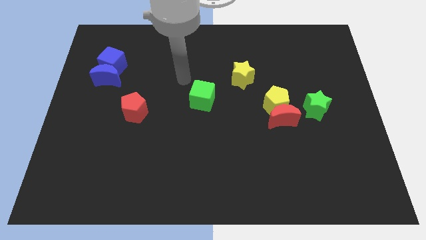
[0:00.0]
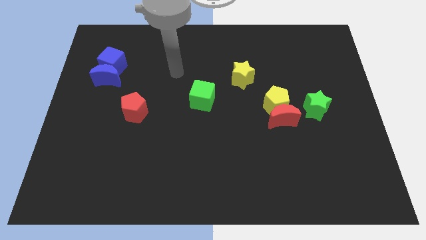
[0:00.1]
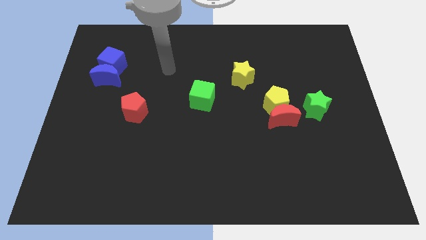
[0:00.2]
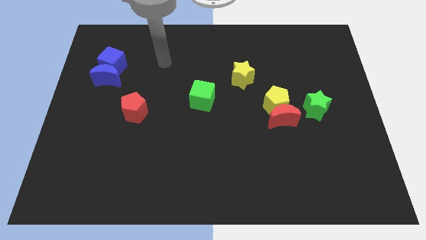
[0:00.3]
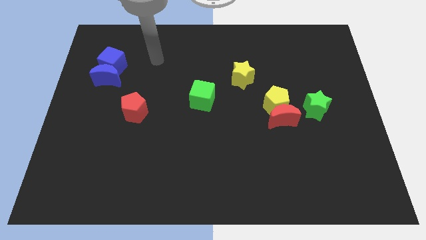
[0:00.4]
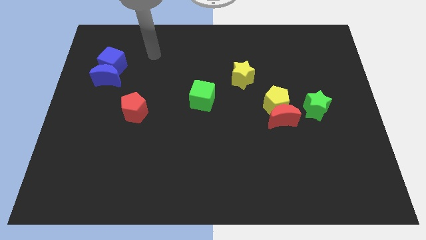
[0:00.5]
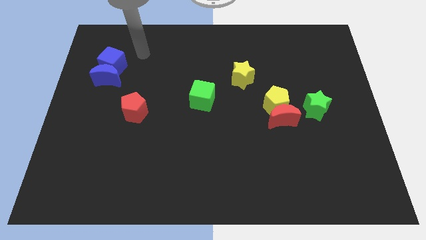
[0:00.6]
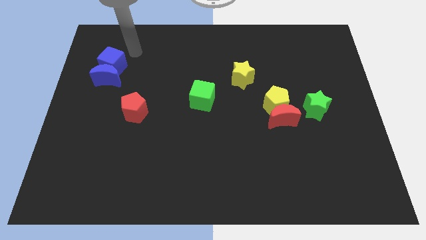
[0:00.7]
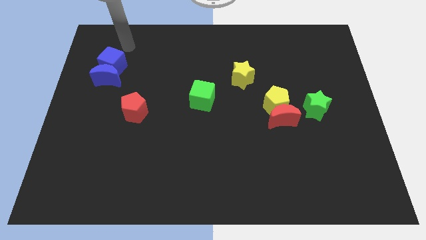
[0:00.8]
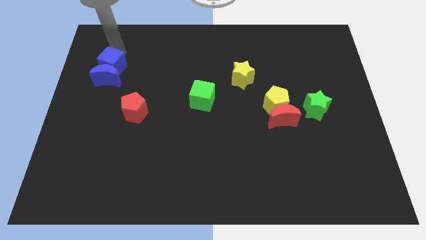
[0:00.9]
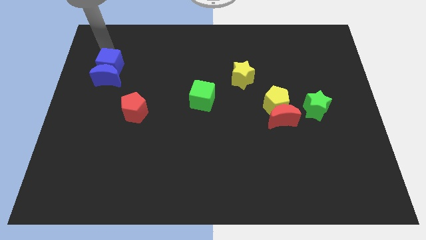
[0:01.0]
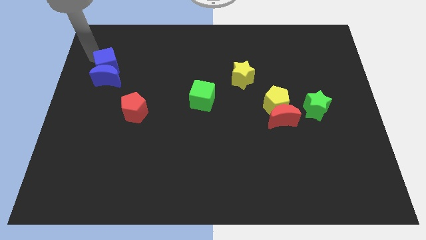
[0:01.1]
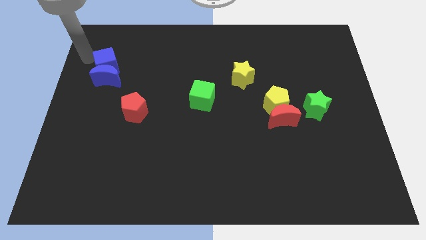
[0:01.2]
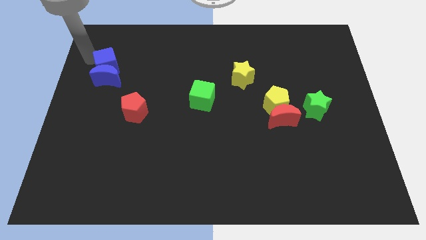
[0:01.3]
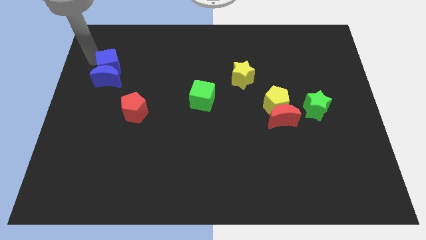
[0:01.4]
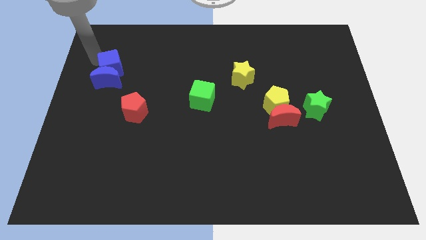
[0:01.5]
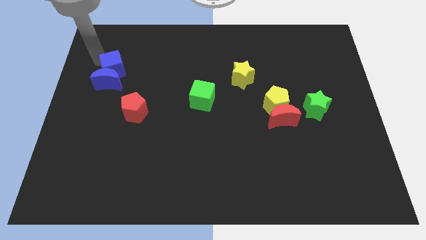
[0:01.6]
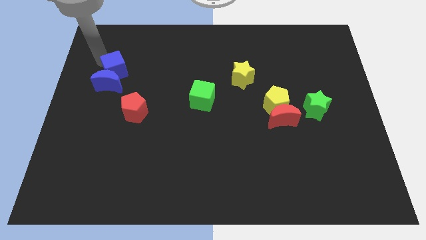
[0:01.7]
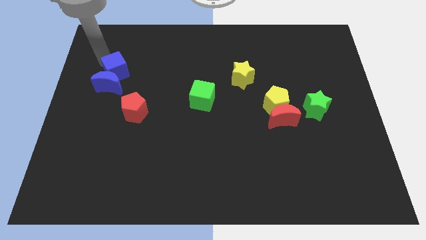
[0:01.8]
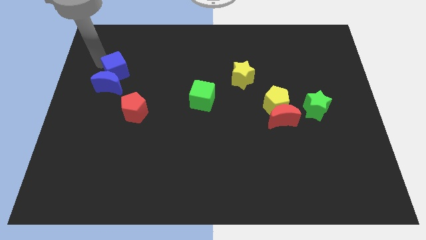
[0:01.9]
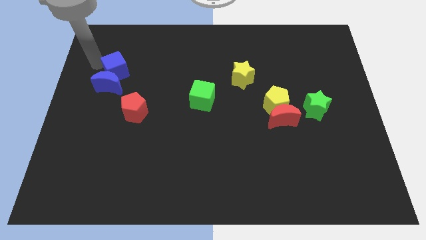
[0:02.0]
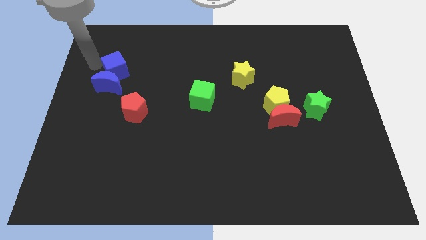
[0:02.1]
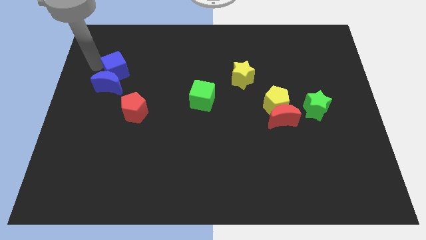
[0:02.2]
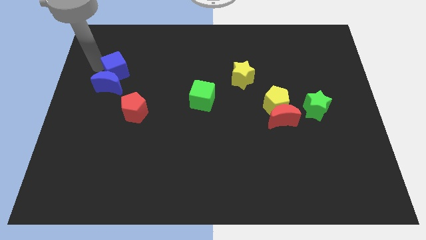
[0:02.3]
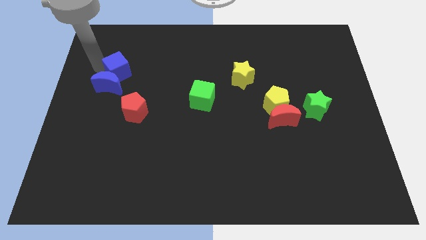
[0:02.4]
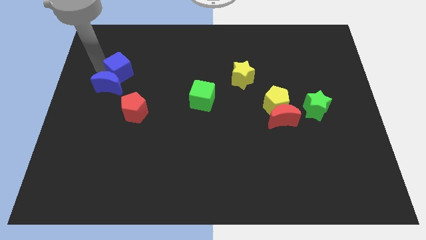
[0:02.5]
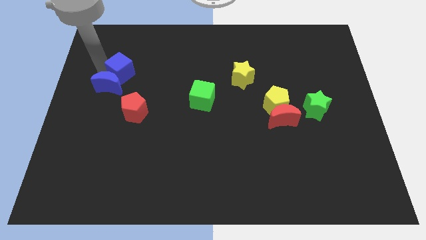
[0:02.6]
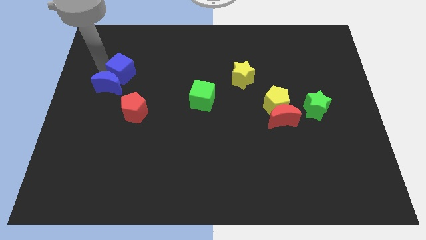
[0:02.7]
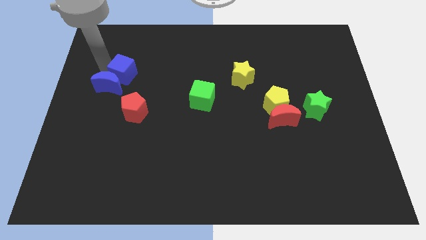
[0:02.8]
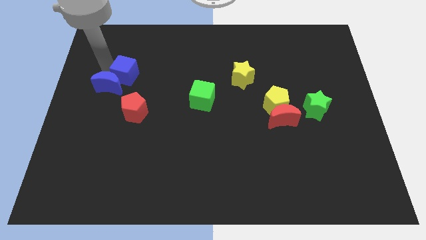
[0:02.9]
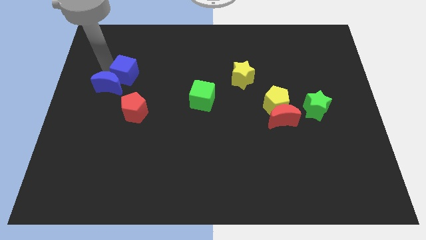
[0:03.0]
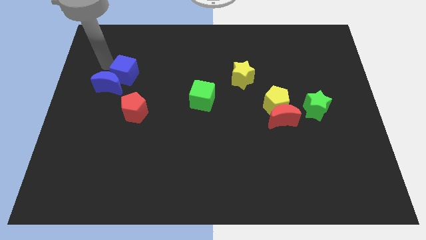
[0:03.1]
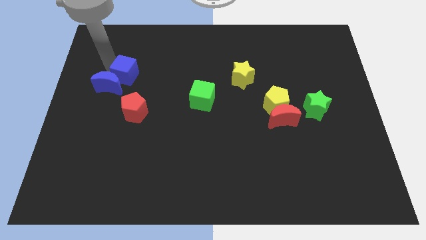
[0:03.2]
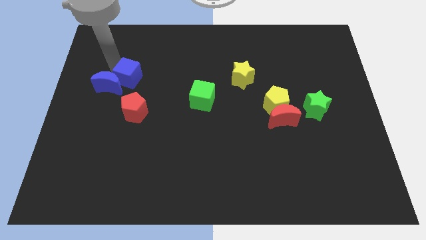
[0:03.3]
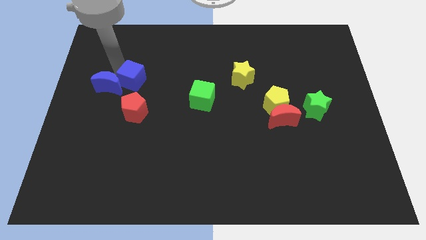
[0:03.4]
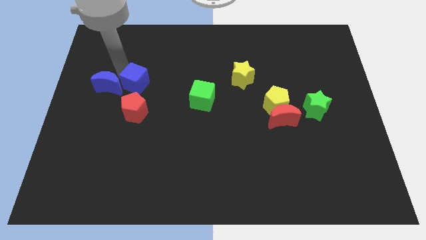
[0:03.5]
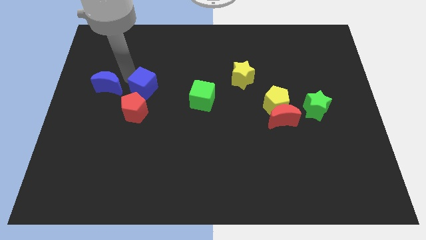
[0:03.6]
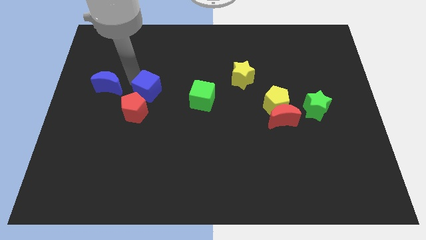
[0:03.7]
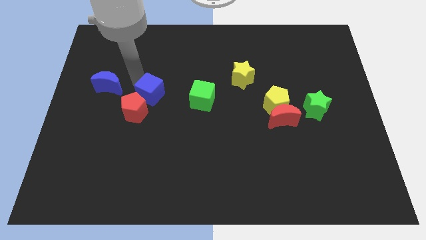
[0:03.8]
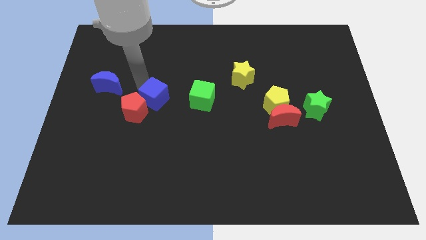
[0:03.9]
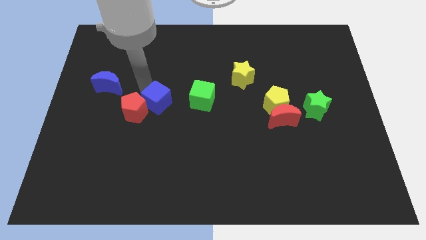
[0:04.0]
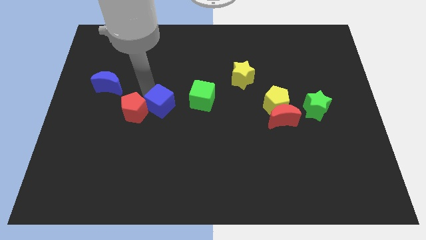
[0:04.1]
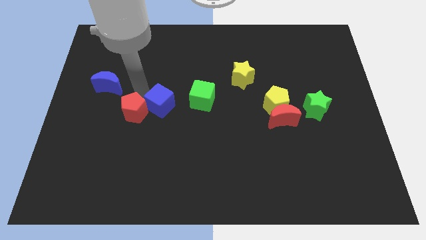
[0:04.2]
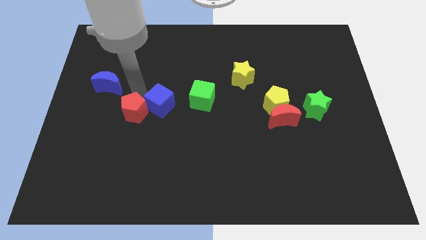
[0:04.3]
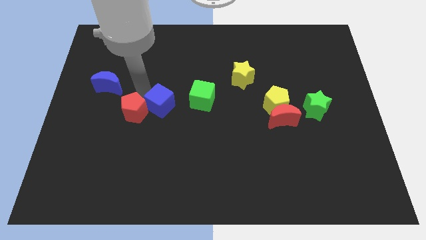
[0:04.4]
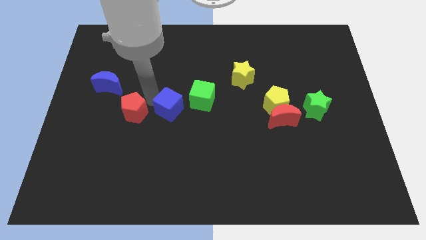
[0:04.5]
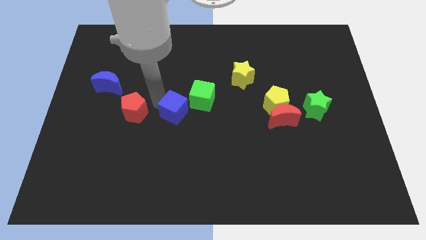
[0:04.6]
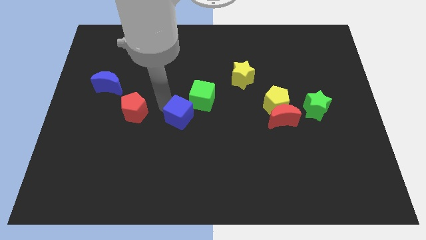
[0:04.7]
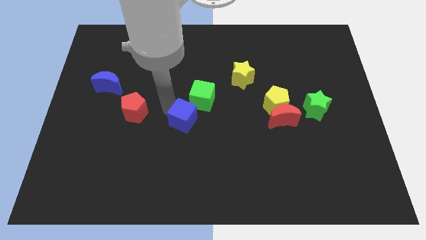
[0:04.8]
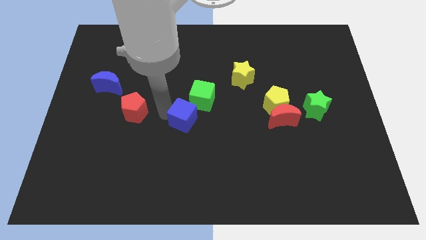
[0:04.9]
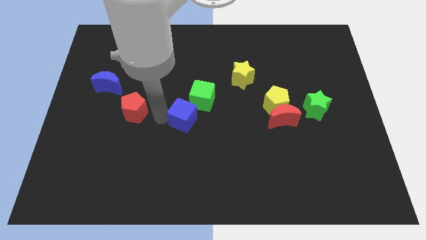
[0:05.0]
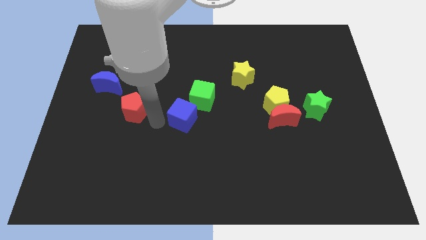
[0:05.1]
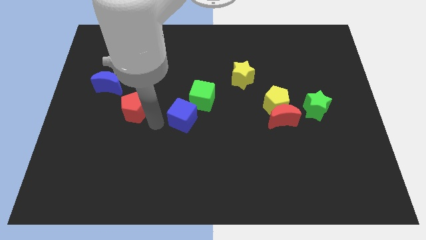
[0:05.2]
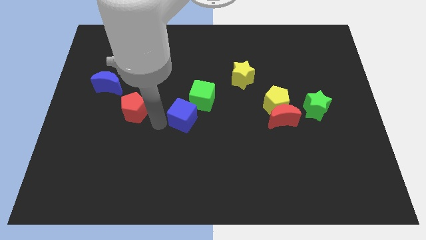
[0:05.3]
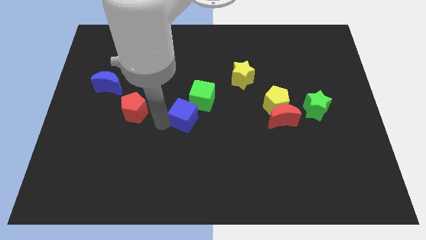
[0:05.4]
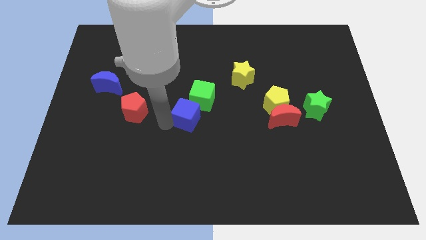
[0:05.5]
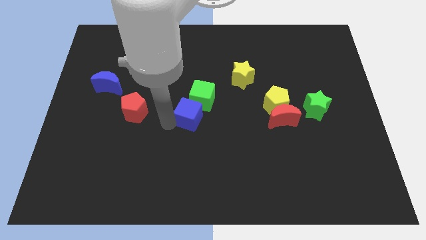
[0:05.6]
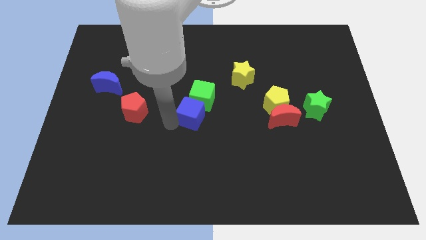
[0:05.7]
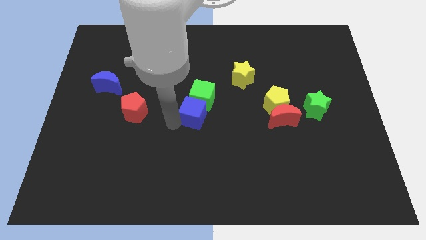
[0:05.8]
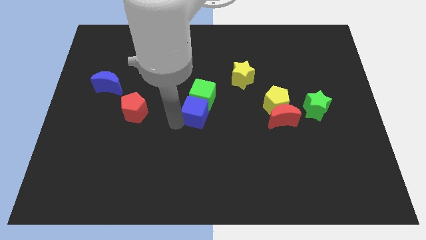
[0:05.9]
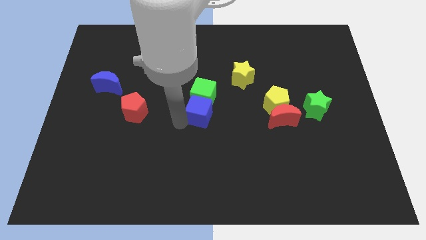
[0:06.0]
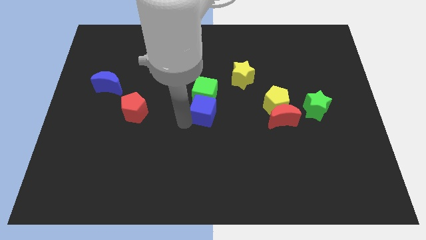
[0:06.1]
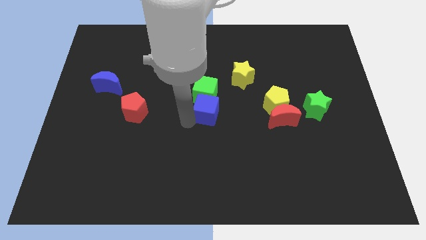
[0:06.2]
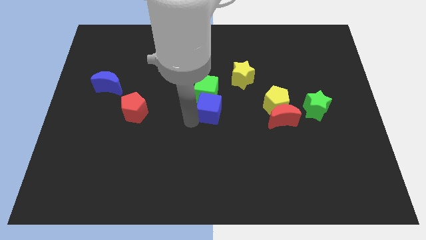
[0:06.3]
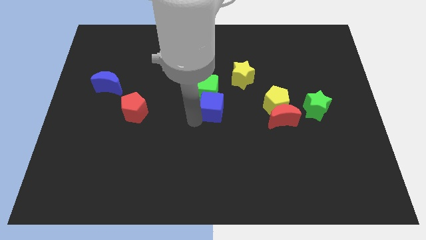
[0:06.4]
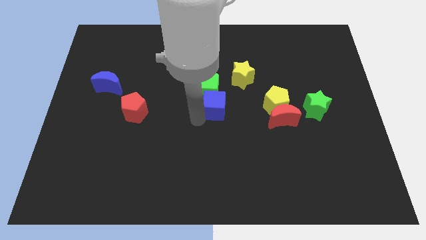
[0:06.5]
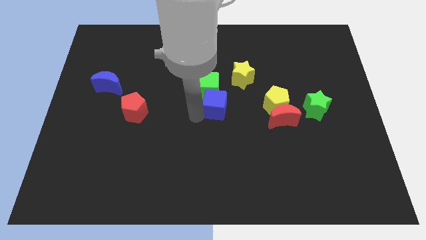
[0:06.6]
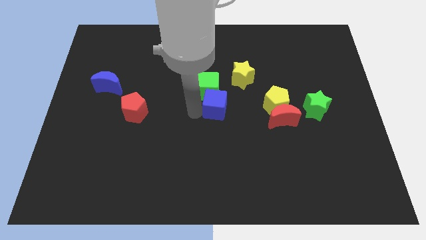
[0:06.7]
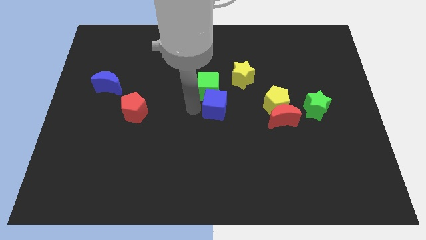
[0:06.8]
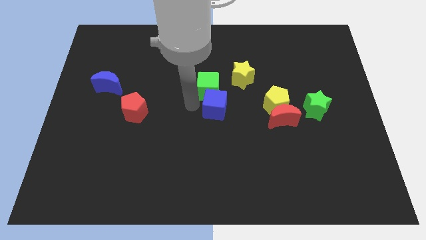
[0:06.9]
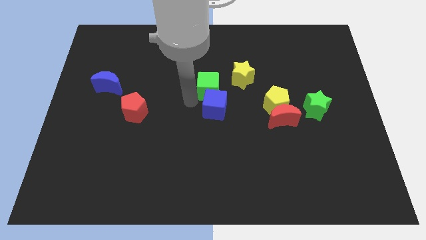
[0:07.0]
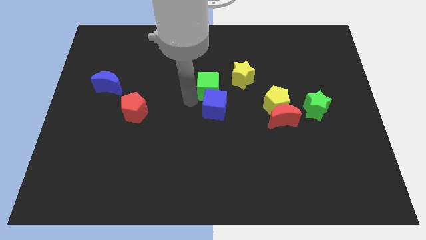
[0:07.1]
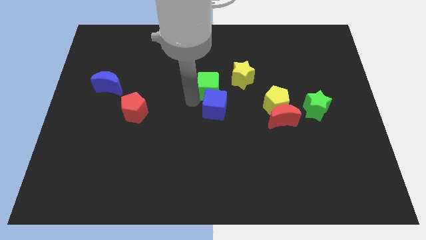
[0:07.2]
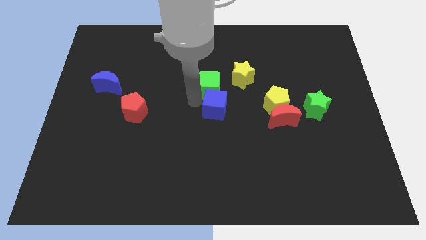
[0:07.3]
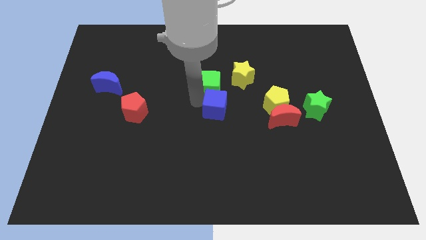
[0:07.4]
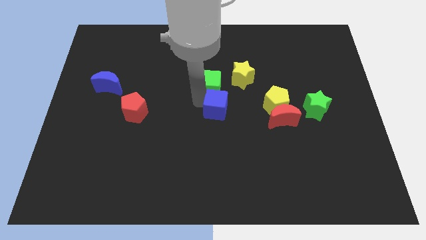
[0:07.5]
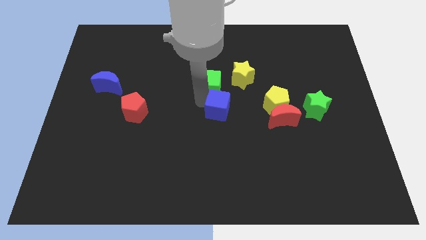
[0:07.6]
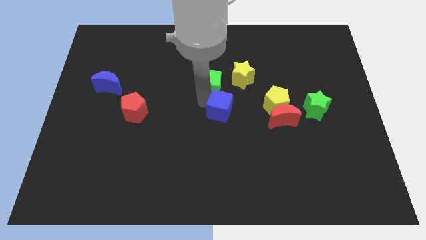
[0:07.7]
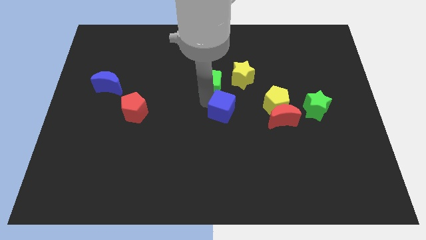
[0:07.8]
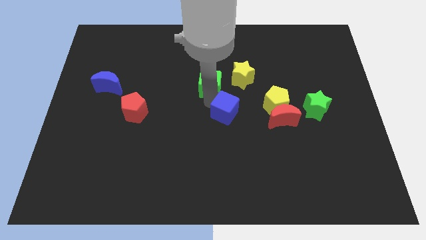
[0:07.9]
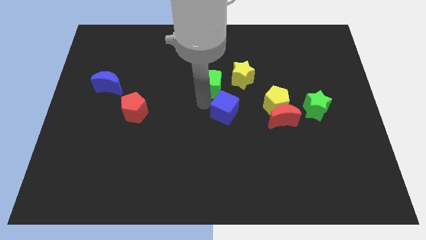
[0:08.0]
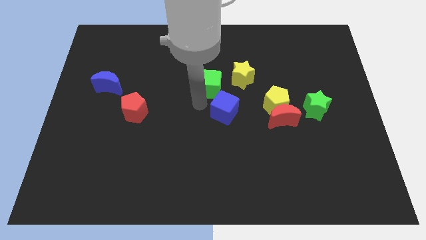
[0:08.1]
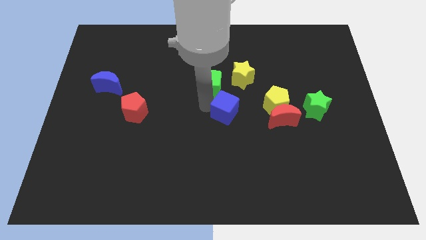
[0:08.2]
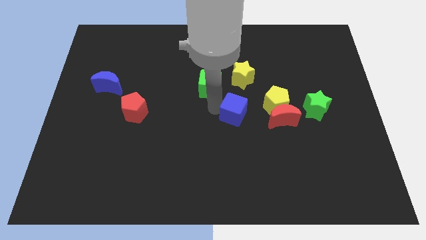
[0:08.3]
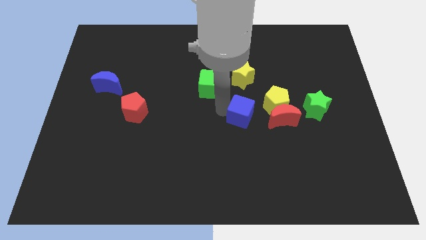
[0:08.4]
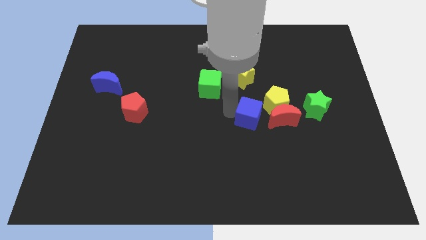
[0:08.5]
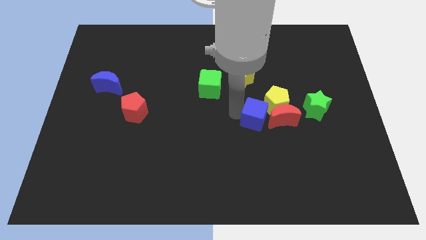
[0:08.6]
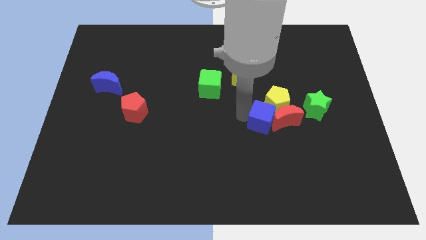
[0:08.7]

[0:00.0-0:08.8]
put the blue cube towards the red moon
